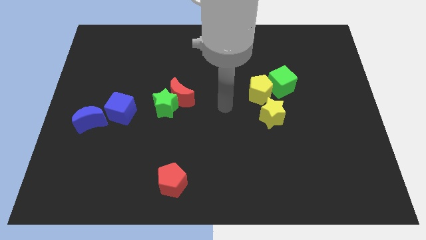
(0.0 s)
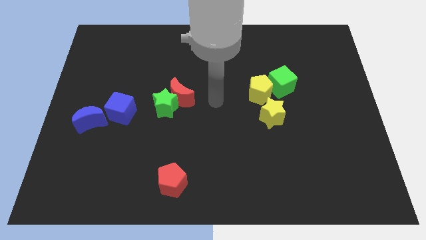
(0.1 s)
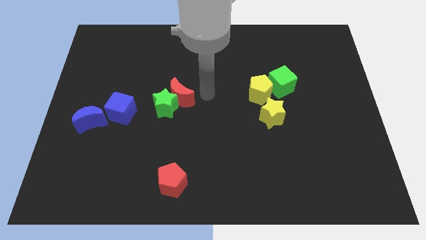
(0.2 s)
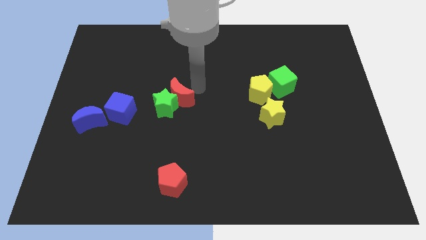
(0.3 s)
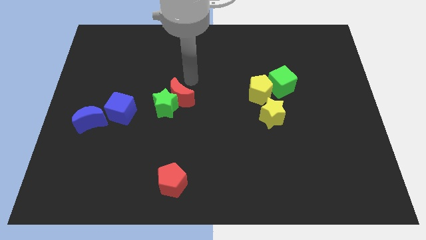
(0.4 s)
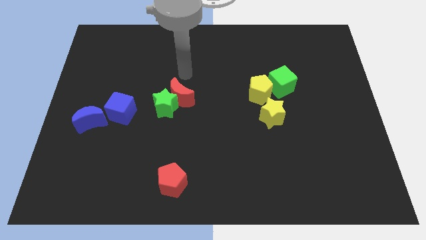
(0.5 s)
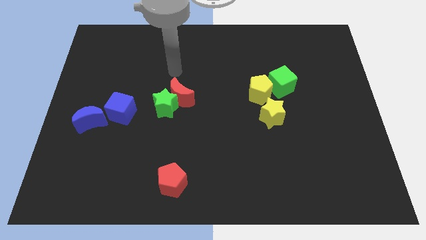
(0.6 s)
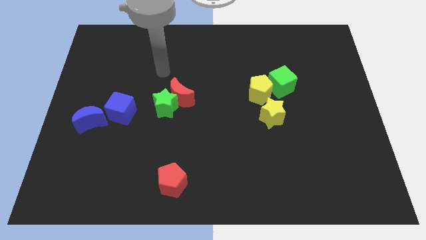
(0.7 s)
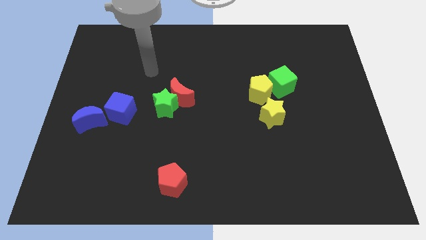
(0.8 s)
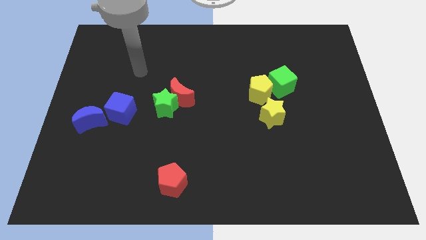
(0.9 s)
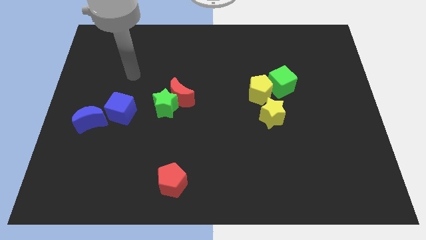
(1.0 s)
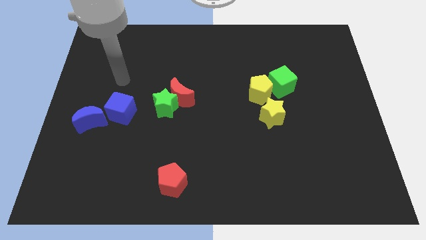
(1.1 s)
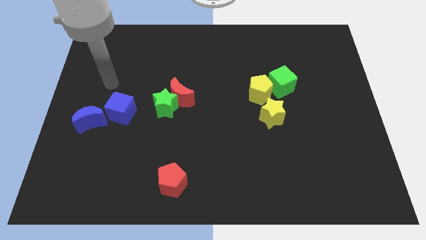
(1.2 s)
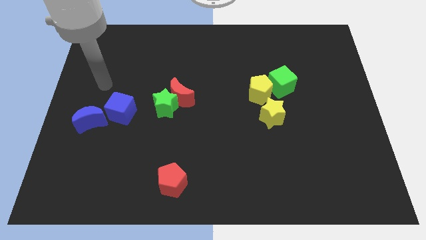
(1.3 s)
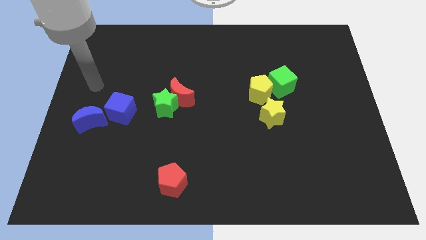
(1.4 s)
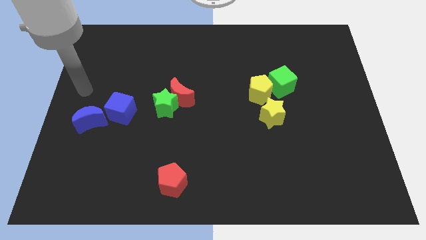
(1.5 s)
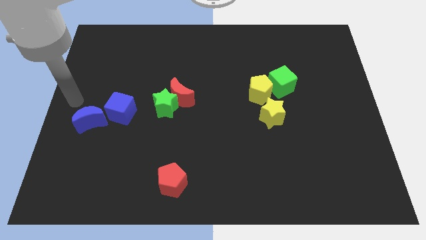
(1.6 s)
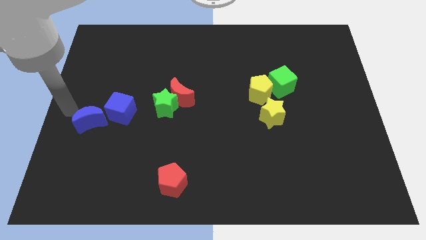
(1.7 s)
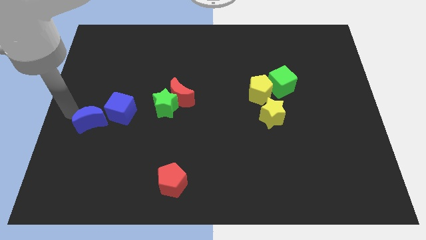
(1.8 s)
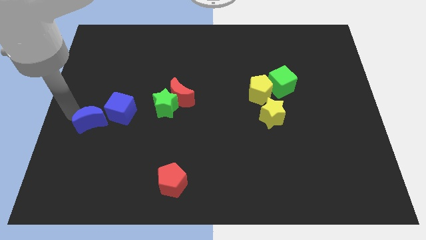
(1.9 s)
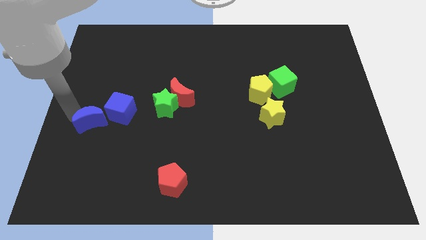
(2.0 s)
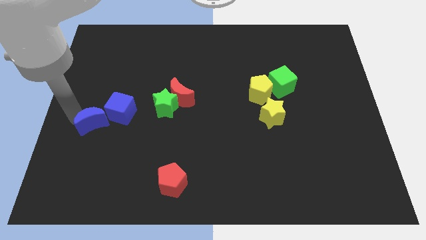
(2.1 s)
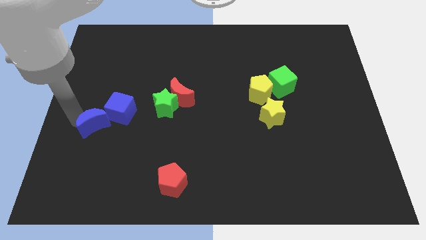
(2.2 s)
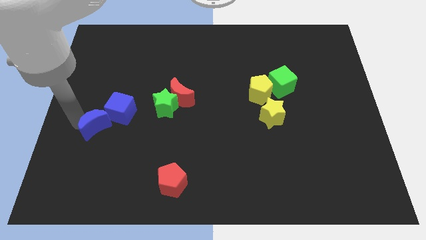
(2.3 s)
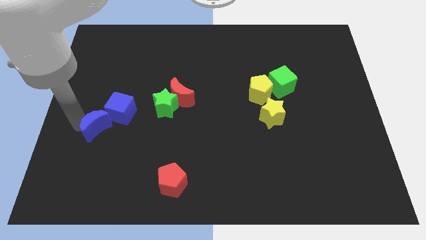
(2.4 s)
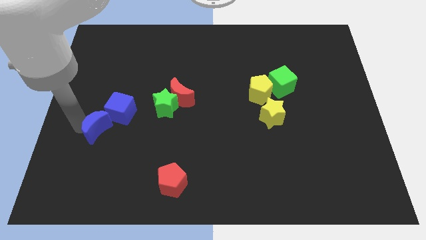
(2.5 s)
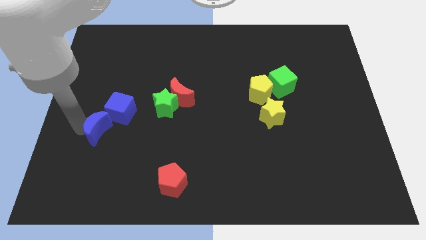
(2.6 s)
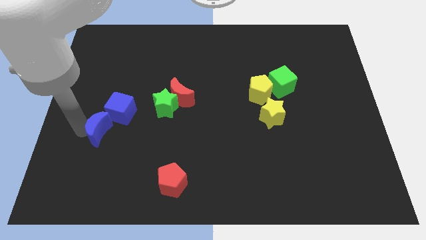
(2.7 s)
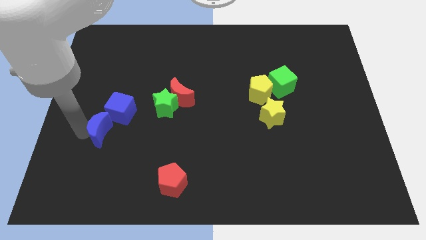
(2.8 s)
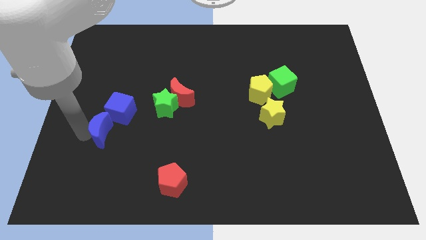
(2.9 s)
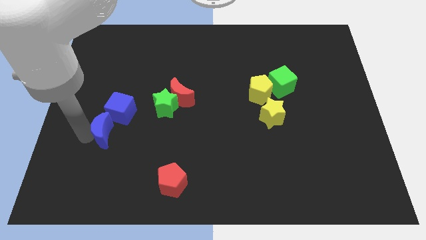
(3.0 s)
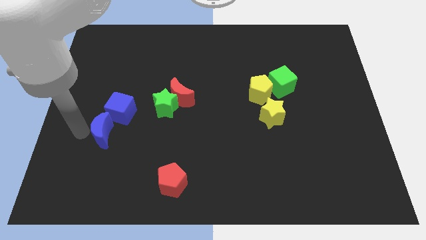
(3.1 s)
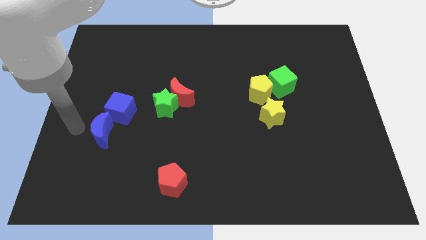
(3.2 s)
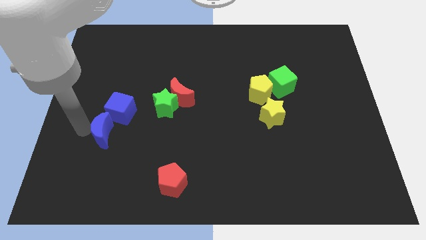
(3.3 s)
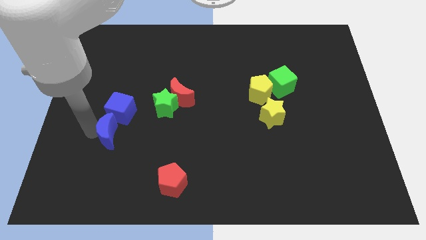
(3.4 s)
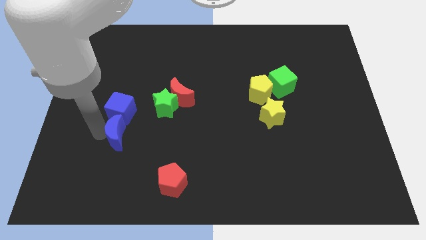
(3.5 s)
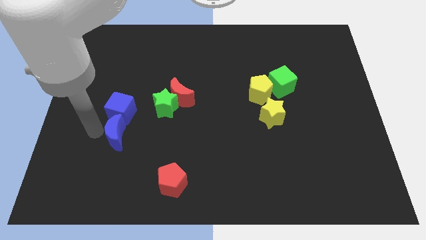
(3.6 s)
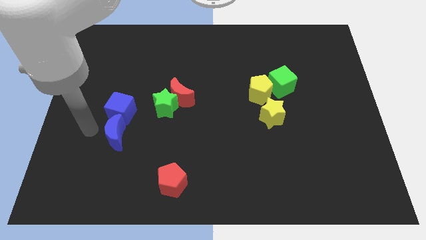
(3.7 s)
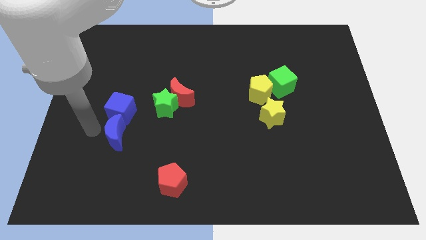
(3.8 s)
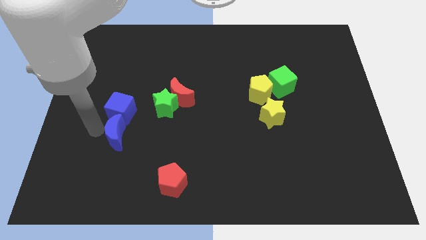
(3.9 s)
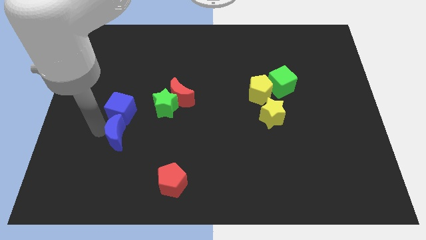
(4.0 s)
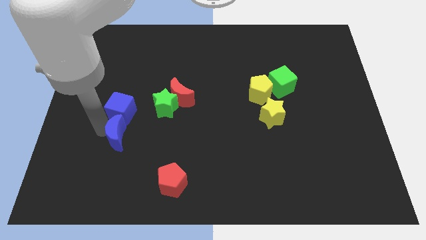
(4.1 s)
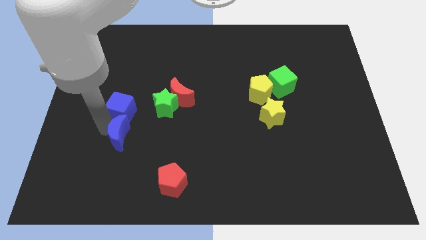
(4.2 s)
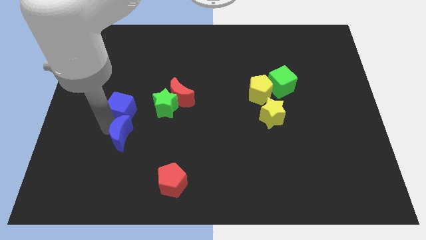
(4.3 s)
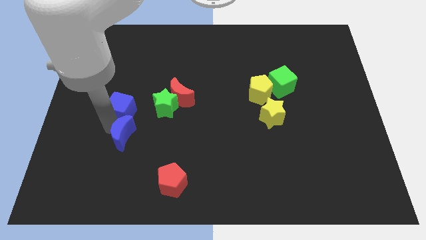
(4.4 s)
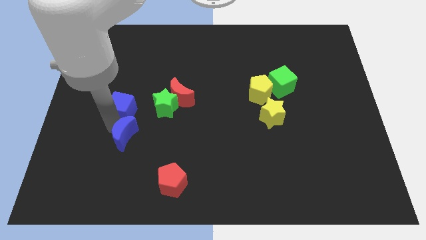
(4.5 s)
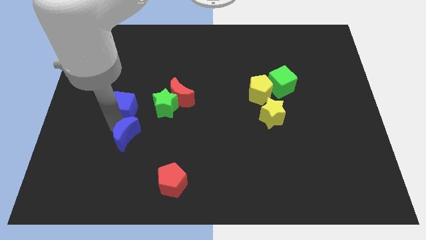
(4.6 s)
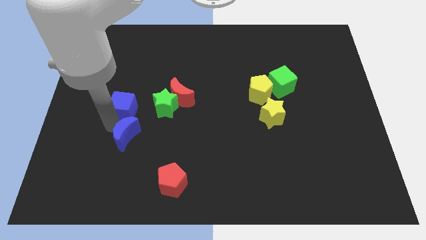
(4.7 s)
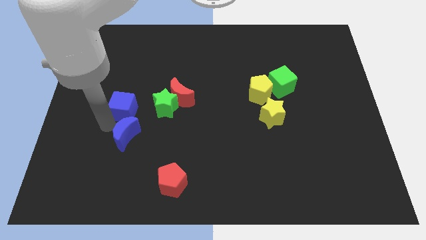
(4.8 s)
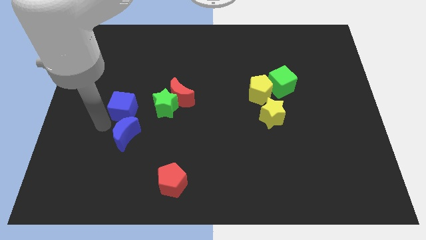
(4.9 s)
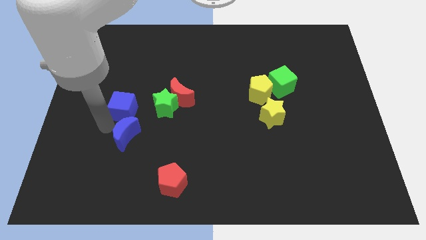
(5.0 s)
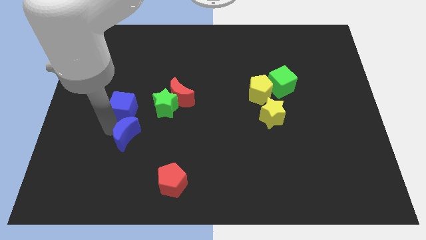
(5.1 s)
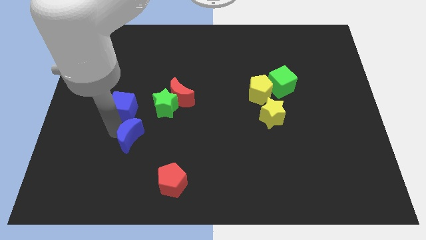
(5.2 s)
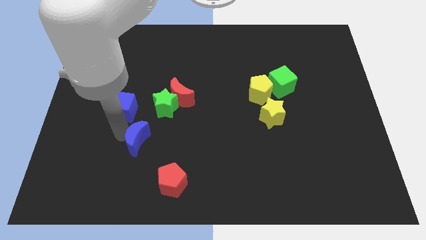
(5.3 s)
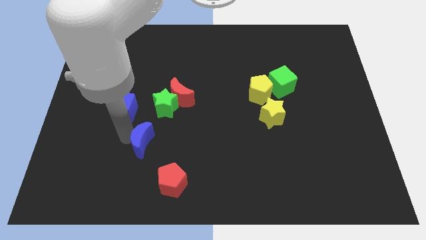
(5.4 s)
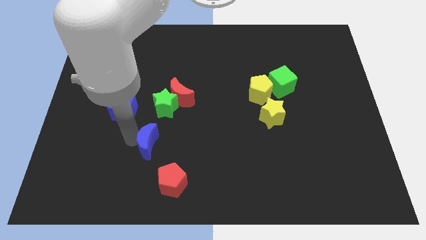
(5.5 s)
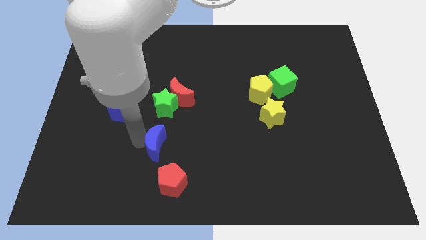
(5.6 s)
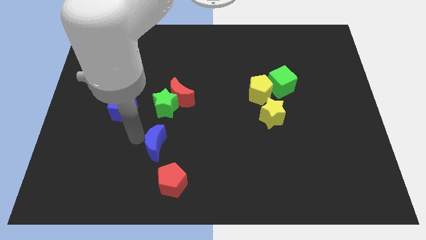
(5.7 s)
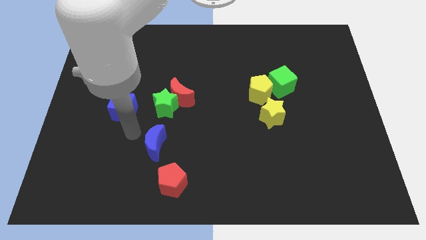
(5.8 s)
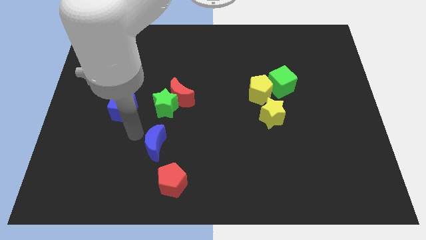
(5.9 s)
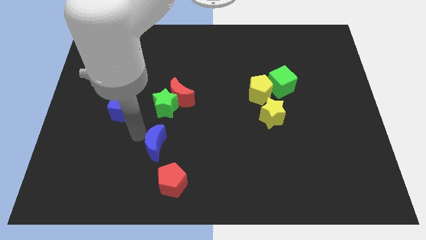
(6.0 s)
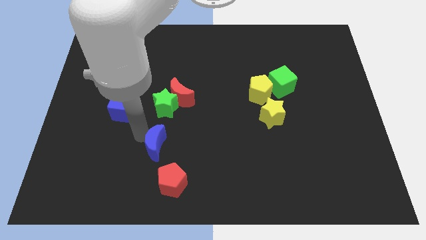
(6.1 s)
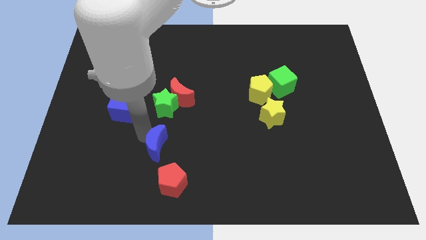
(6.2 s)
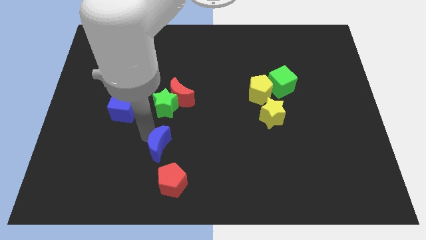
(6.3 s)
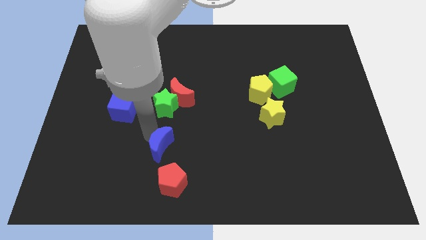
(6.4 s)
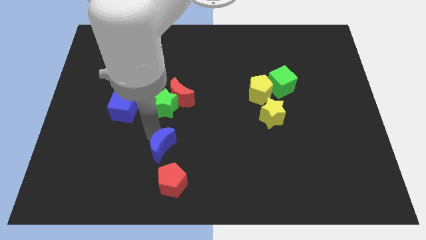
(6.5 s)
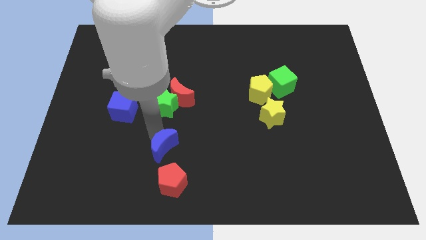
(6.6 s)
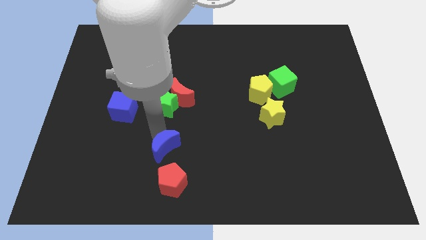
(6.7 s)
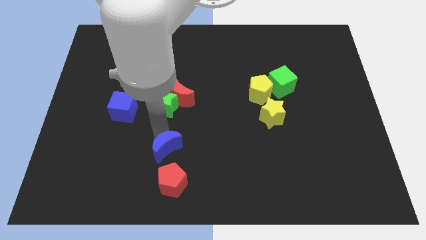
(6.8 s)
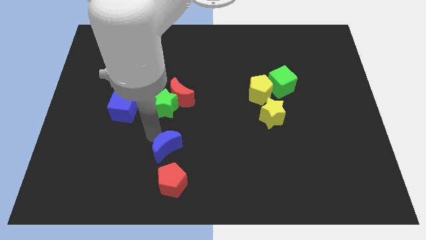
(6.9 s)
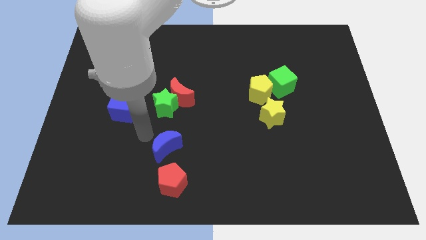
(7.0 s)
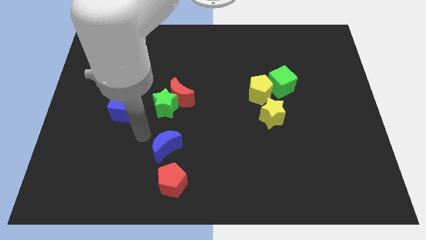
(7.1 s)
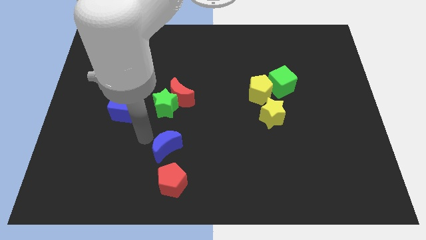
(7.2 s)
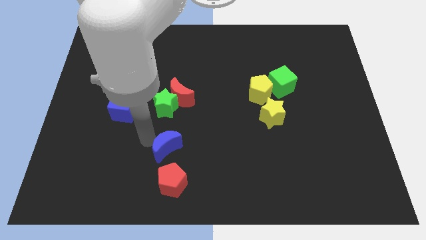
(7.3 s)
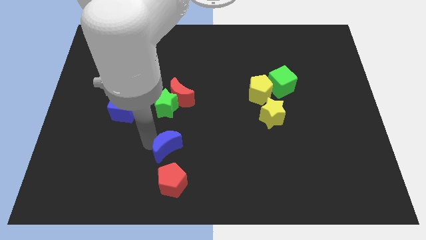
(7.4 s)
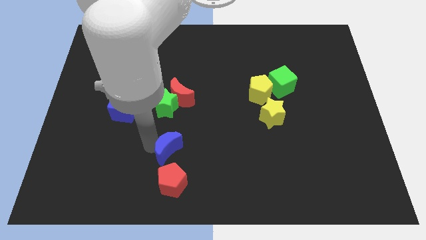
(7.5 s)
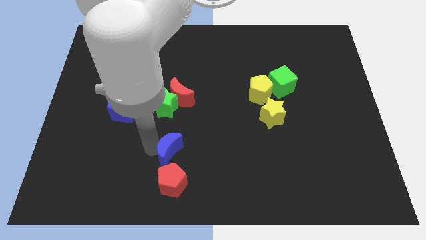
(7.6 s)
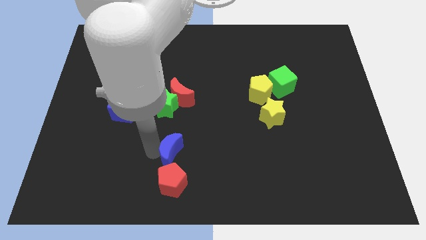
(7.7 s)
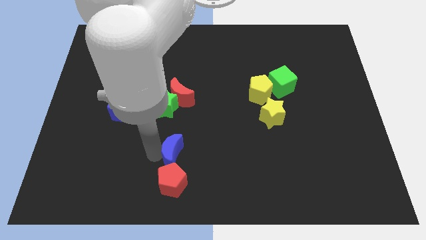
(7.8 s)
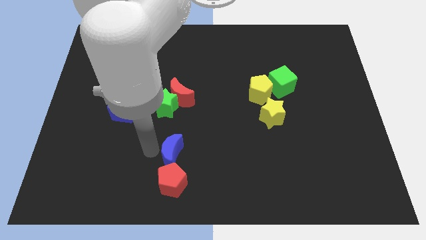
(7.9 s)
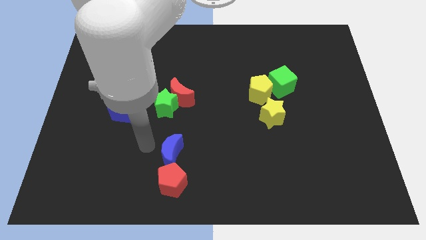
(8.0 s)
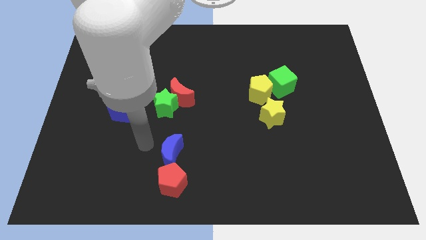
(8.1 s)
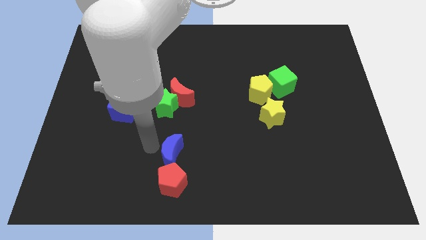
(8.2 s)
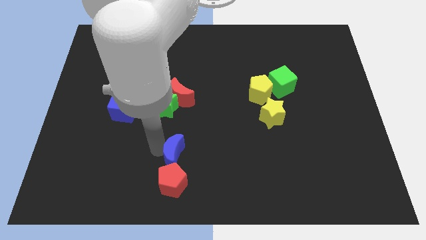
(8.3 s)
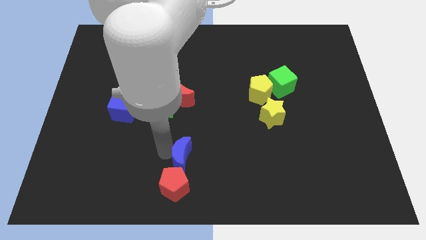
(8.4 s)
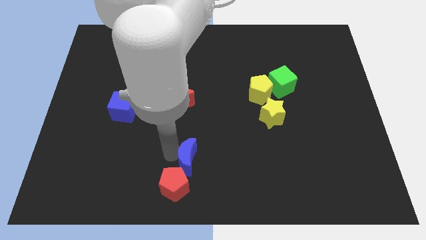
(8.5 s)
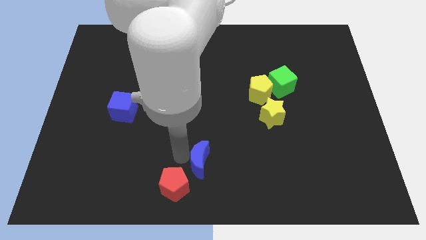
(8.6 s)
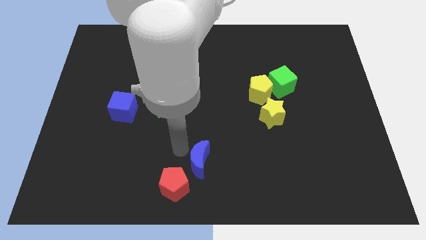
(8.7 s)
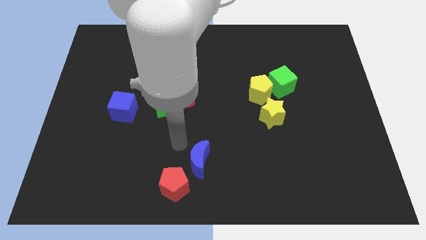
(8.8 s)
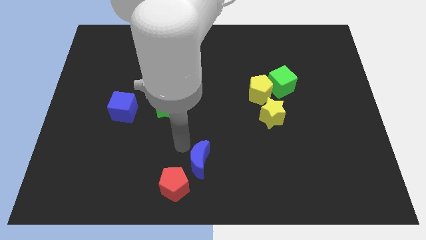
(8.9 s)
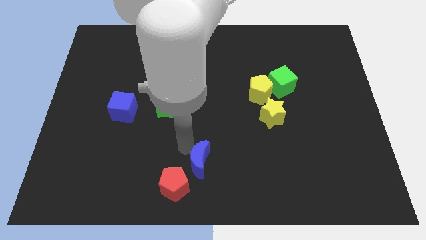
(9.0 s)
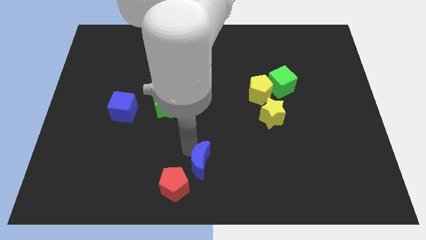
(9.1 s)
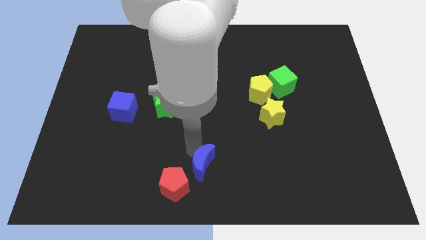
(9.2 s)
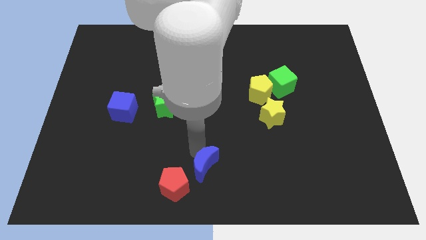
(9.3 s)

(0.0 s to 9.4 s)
put the blue moon to the right of the red pentagon
